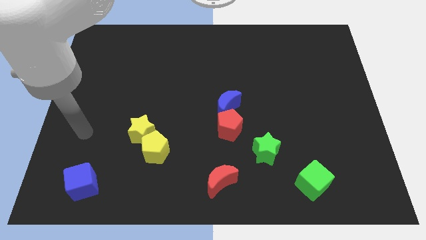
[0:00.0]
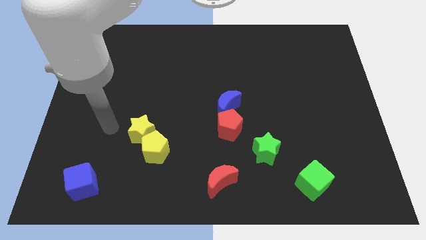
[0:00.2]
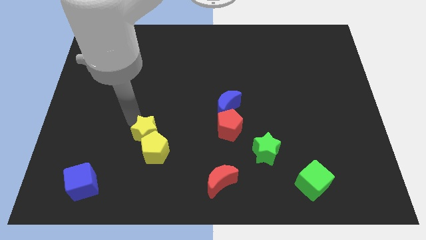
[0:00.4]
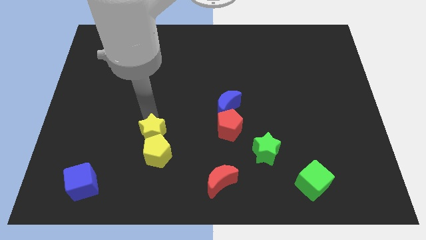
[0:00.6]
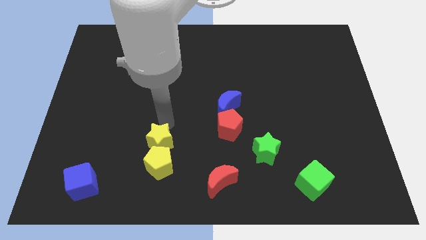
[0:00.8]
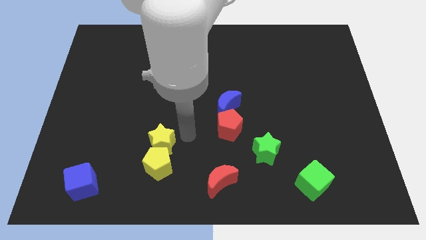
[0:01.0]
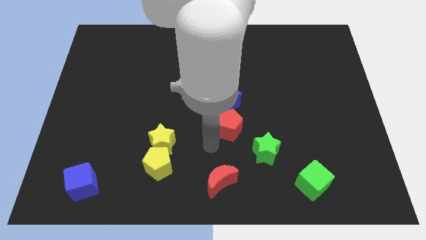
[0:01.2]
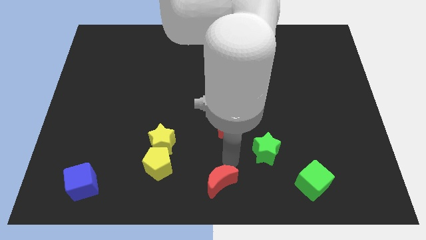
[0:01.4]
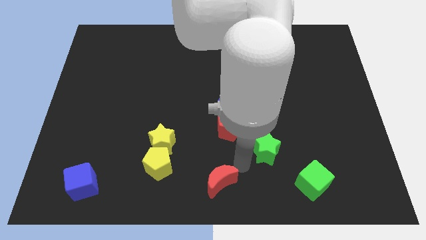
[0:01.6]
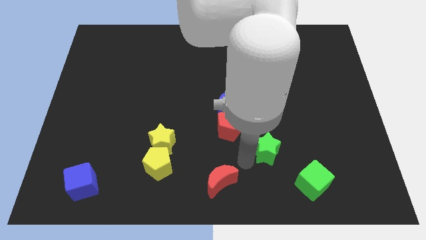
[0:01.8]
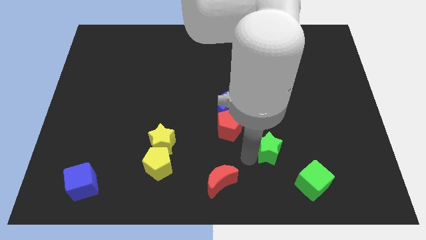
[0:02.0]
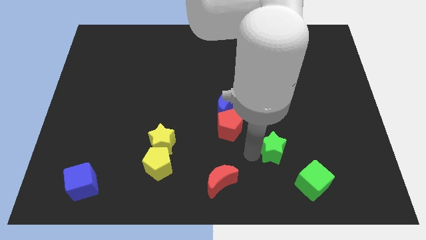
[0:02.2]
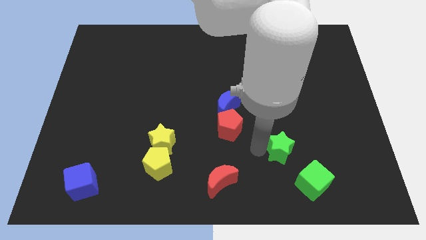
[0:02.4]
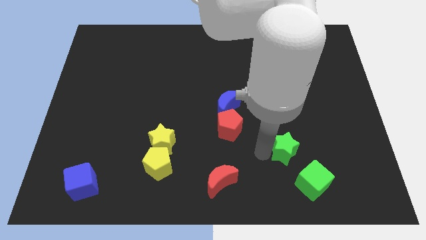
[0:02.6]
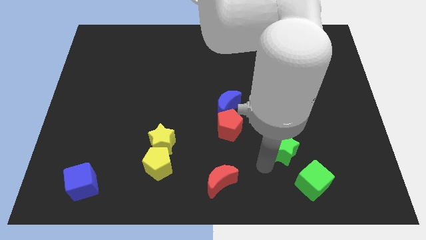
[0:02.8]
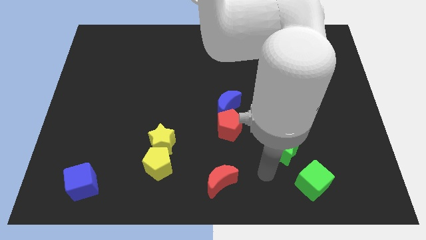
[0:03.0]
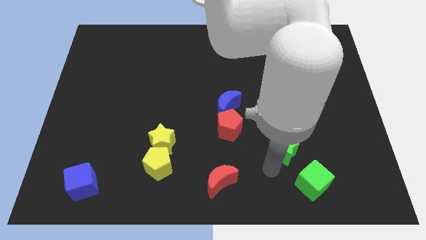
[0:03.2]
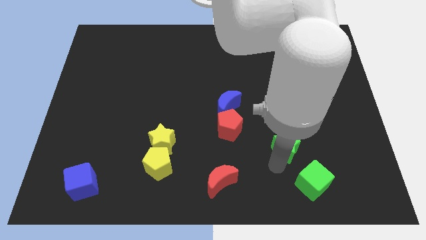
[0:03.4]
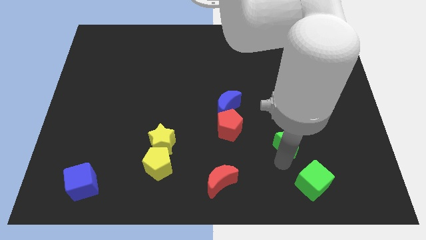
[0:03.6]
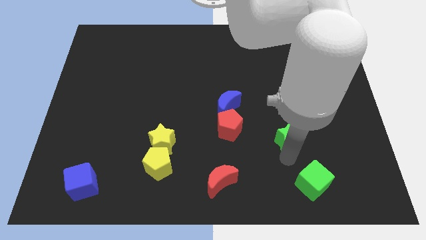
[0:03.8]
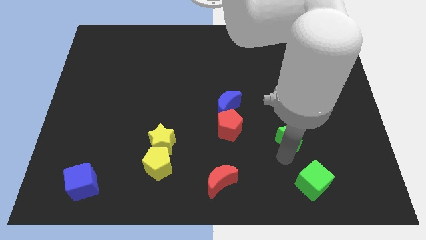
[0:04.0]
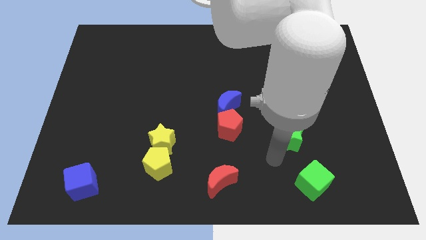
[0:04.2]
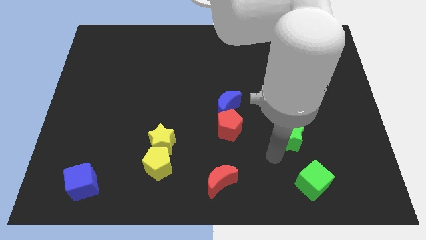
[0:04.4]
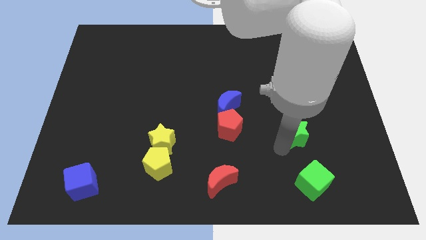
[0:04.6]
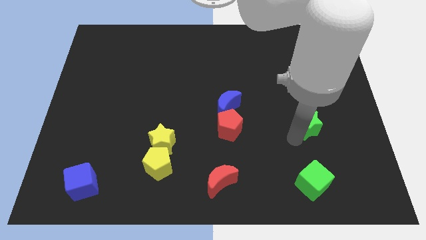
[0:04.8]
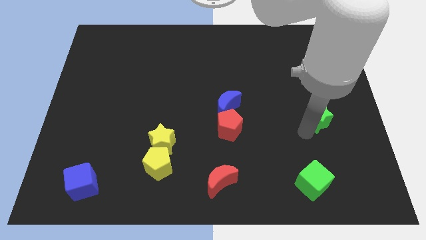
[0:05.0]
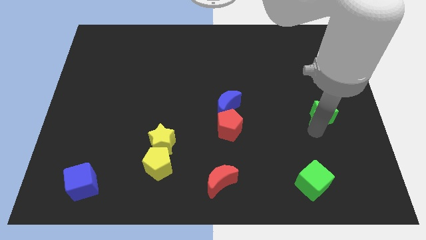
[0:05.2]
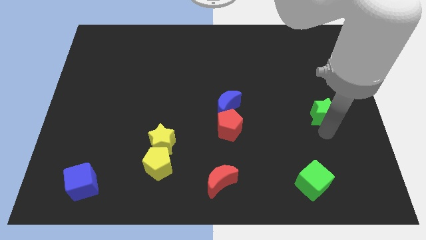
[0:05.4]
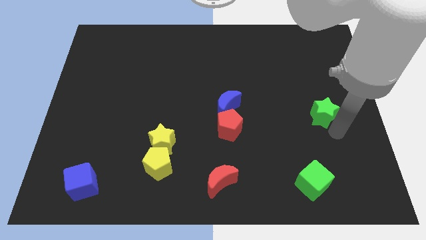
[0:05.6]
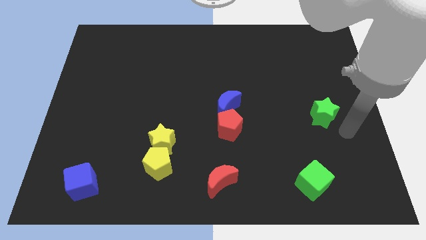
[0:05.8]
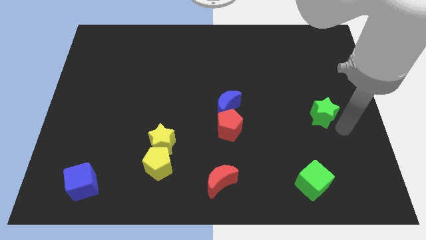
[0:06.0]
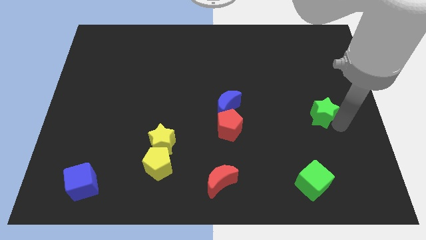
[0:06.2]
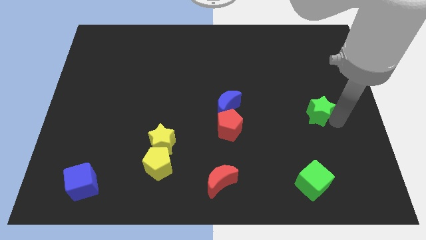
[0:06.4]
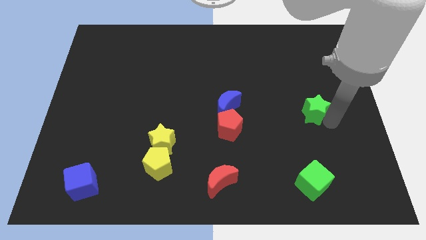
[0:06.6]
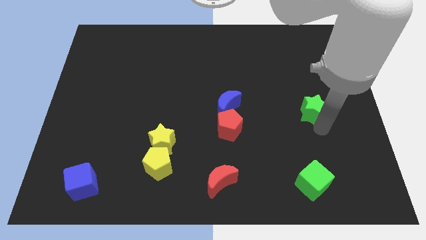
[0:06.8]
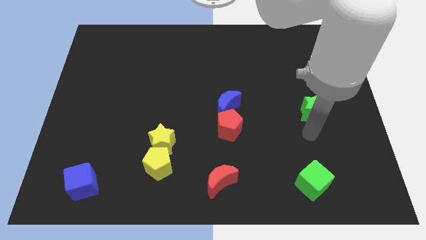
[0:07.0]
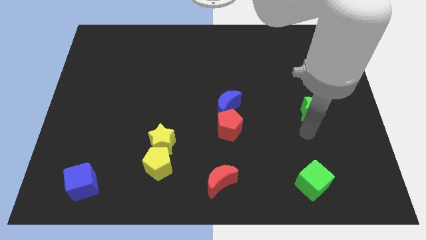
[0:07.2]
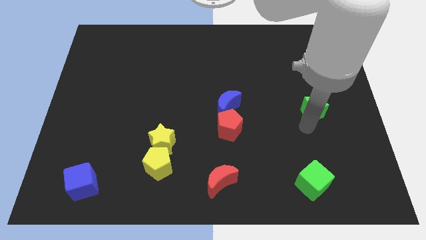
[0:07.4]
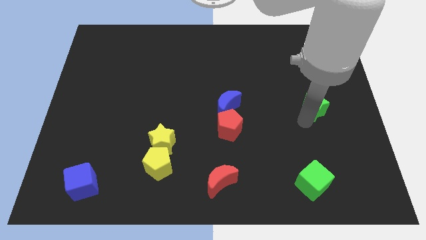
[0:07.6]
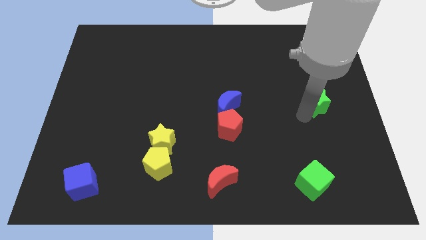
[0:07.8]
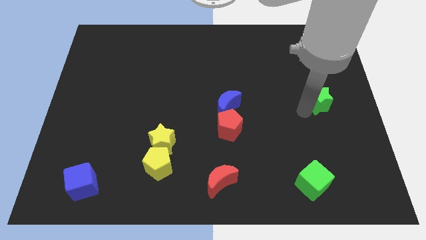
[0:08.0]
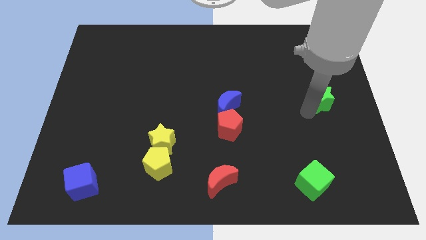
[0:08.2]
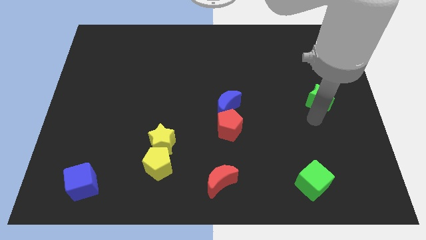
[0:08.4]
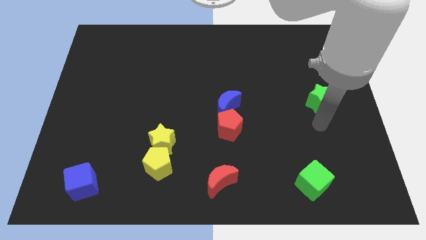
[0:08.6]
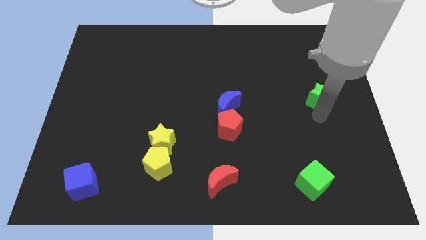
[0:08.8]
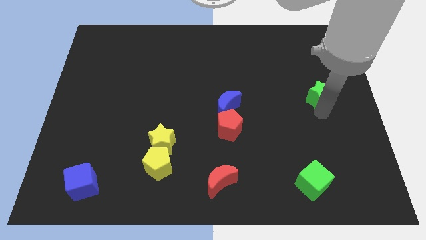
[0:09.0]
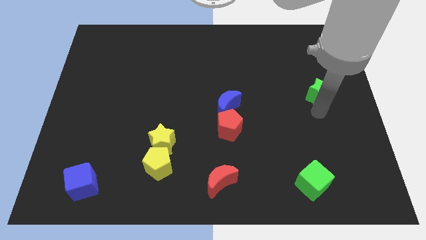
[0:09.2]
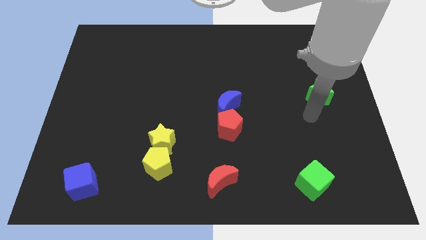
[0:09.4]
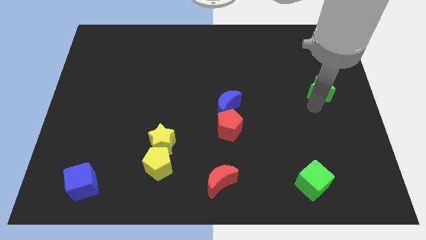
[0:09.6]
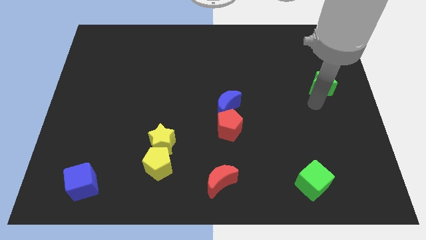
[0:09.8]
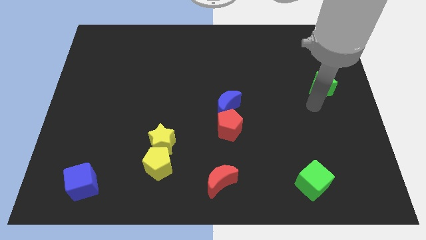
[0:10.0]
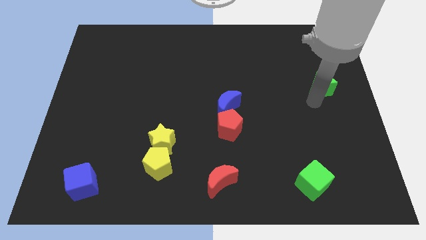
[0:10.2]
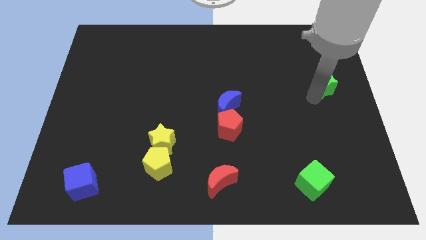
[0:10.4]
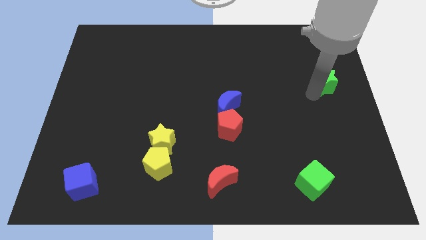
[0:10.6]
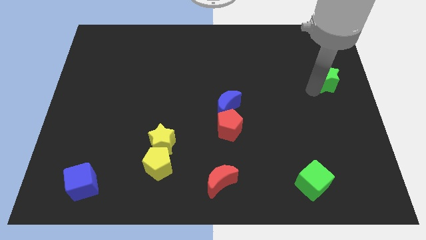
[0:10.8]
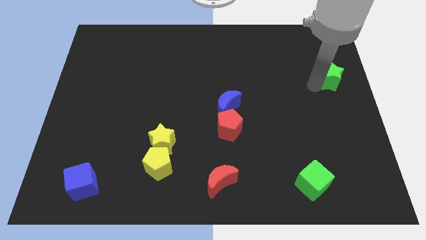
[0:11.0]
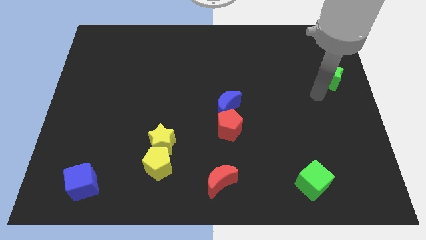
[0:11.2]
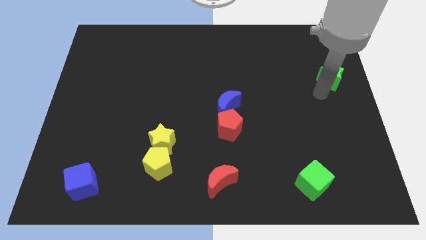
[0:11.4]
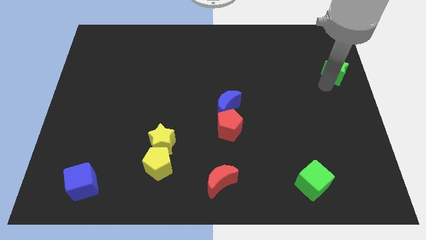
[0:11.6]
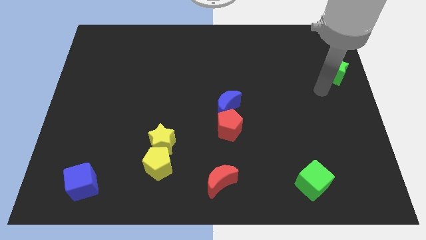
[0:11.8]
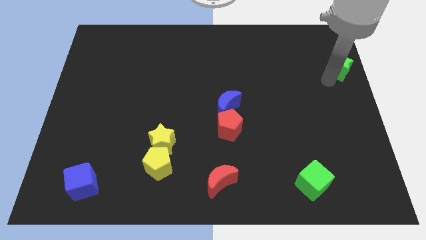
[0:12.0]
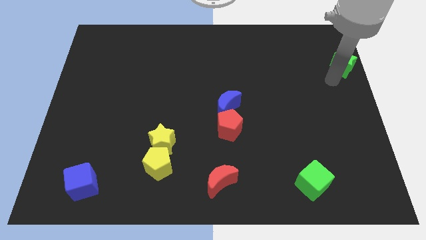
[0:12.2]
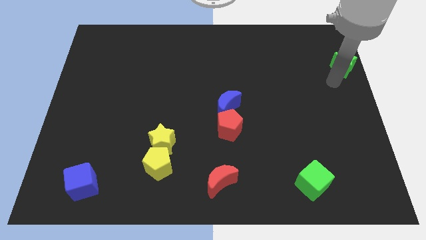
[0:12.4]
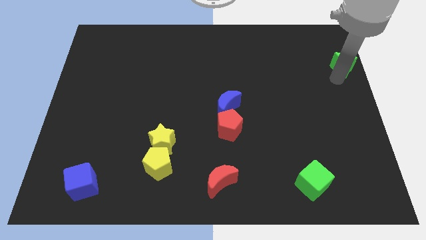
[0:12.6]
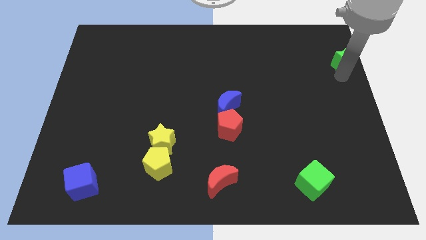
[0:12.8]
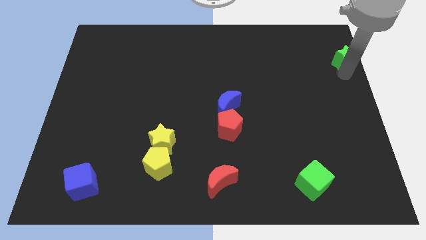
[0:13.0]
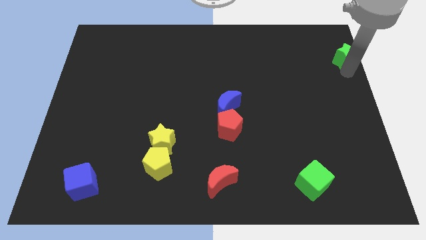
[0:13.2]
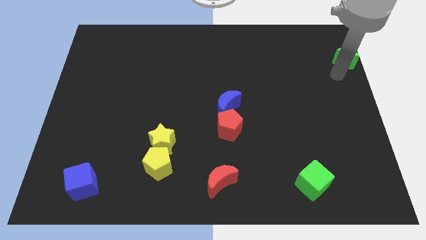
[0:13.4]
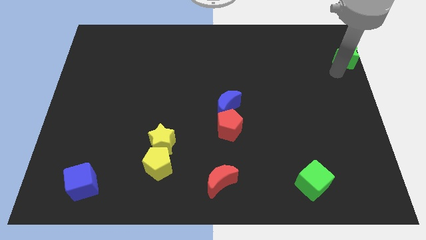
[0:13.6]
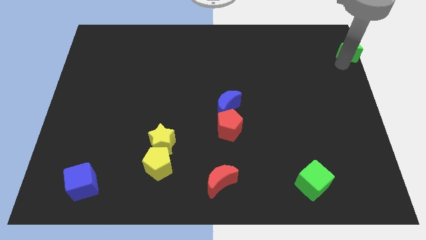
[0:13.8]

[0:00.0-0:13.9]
move the green star to the upper right corner
